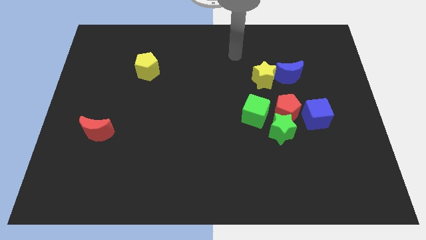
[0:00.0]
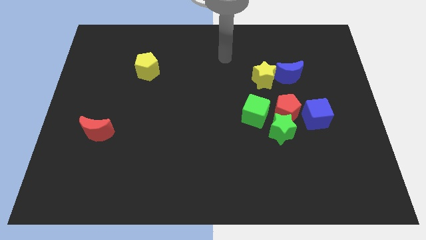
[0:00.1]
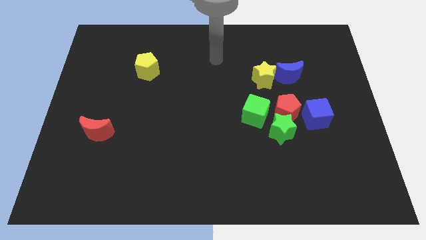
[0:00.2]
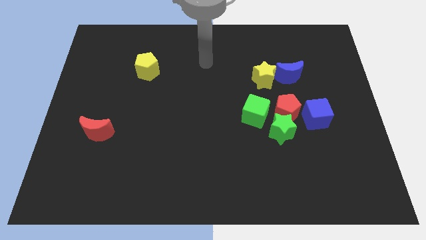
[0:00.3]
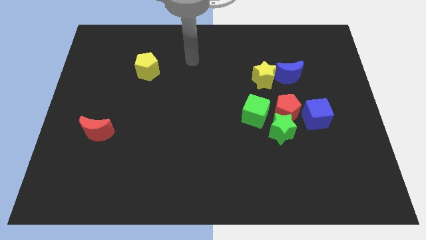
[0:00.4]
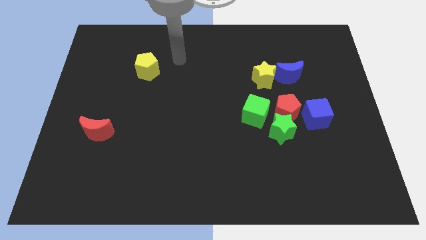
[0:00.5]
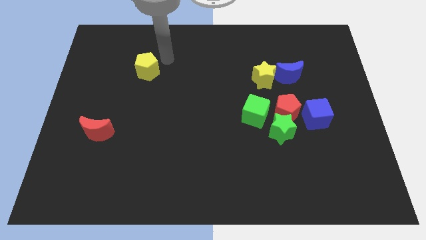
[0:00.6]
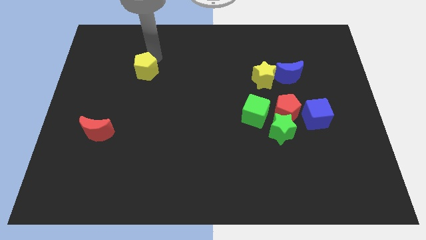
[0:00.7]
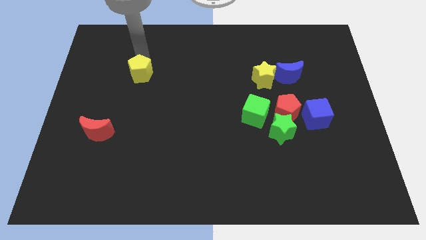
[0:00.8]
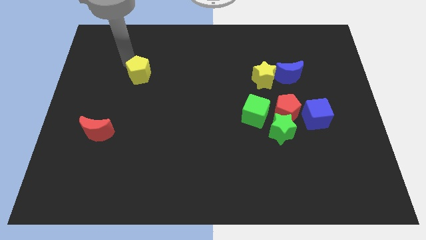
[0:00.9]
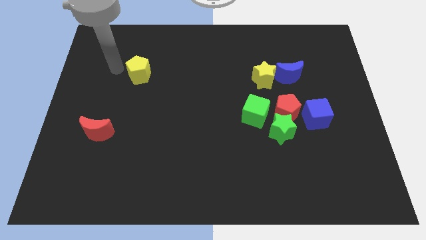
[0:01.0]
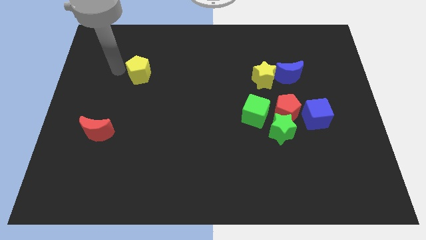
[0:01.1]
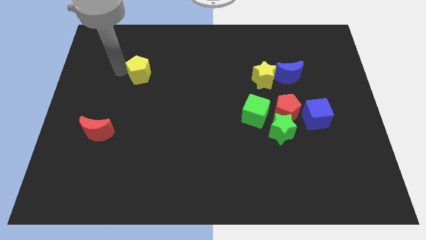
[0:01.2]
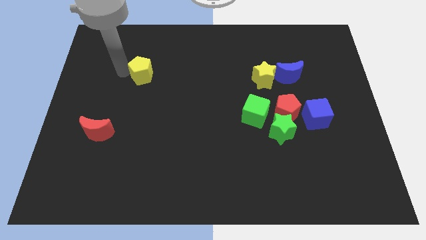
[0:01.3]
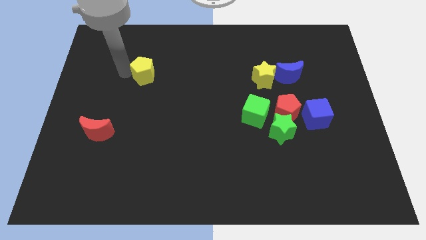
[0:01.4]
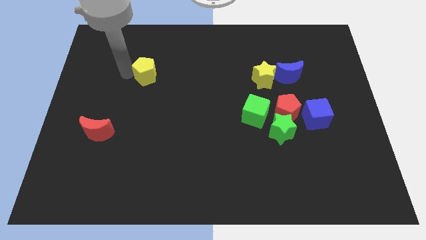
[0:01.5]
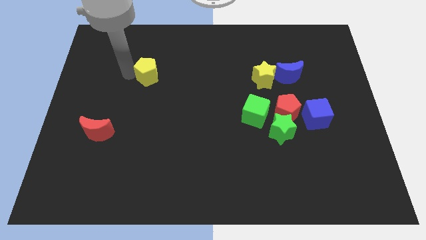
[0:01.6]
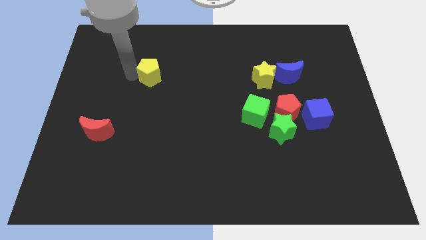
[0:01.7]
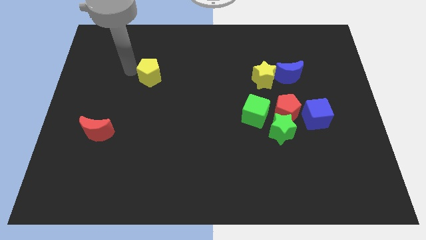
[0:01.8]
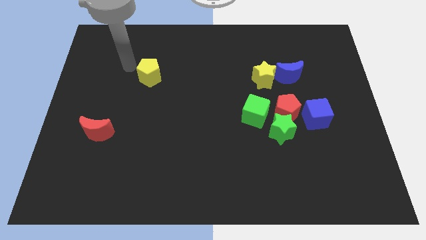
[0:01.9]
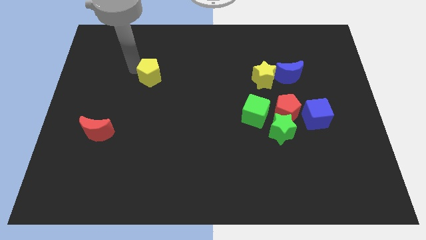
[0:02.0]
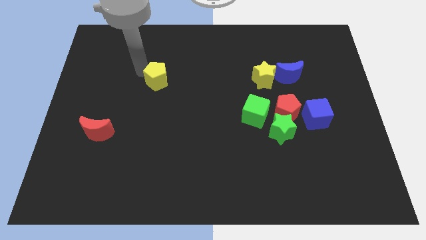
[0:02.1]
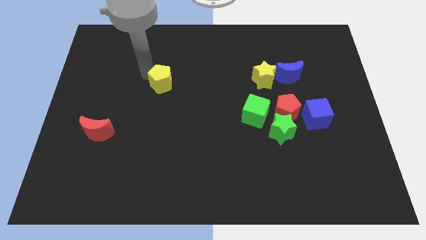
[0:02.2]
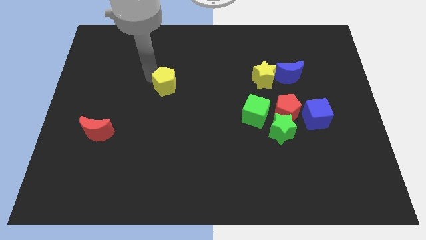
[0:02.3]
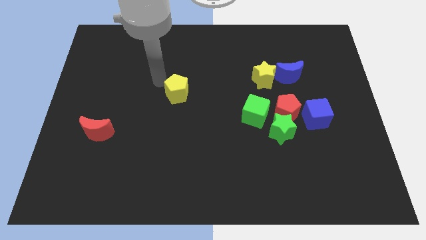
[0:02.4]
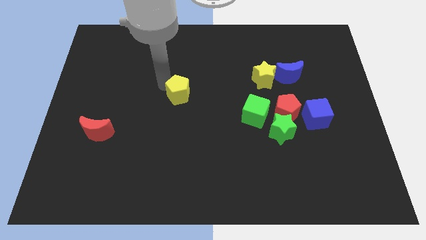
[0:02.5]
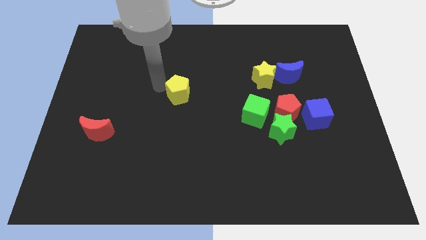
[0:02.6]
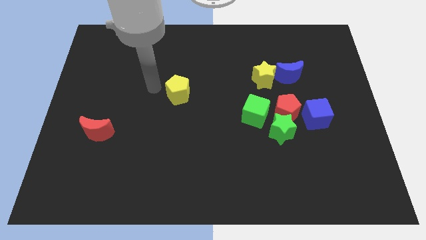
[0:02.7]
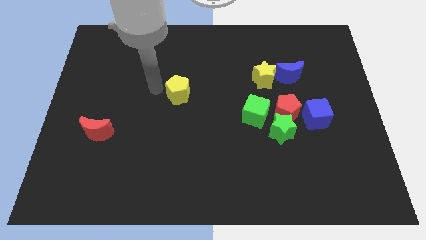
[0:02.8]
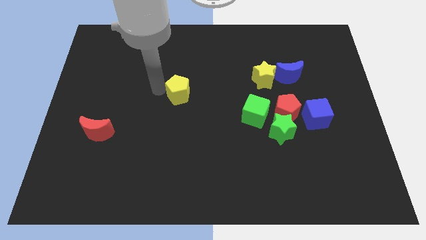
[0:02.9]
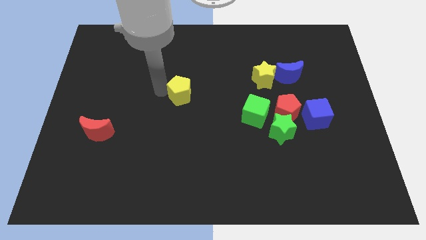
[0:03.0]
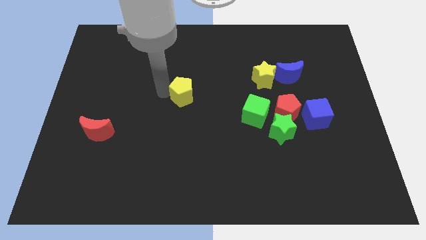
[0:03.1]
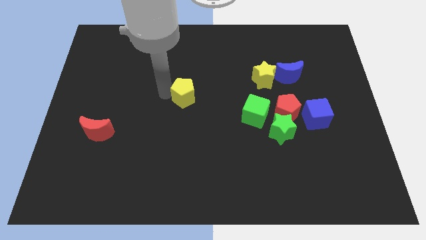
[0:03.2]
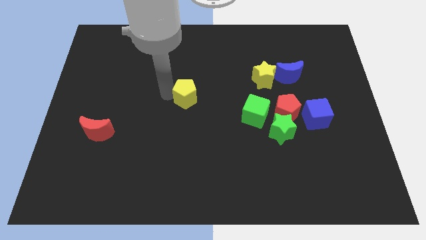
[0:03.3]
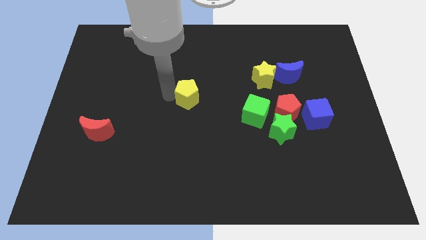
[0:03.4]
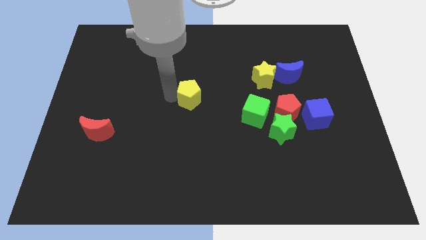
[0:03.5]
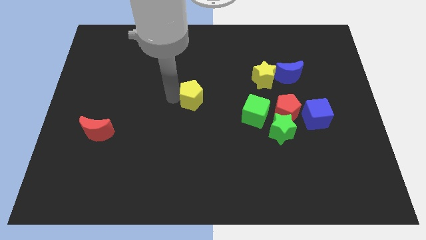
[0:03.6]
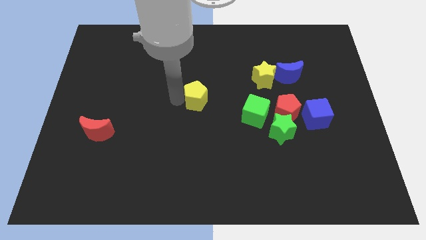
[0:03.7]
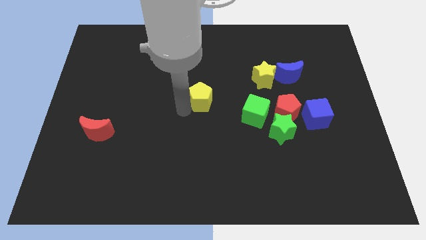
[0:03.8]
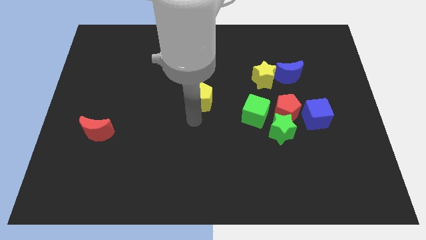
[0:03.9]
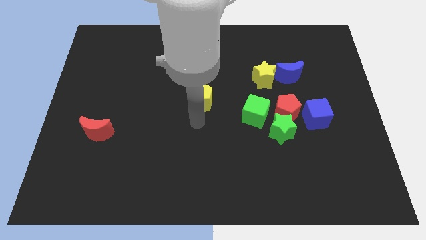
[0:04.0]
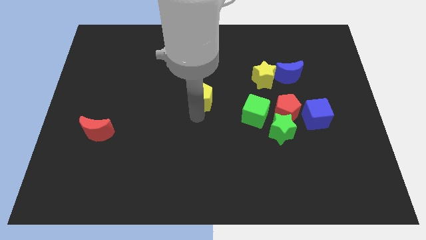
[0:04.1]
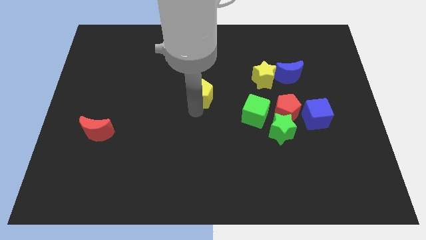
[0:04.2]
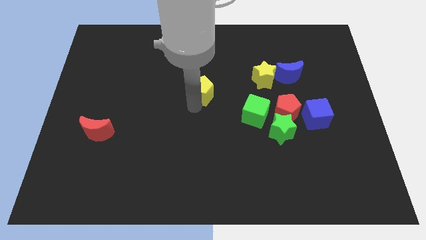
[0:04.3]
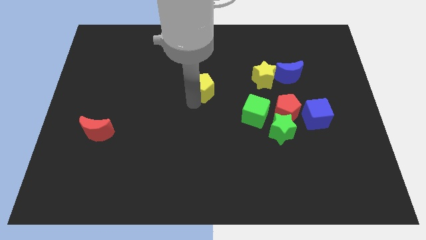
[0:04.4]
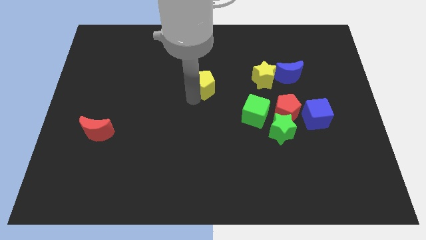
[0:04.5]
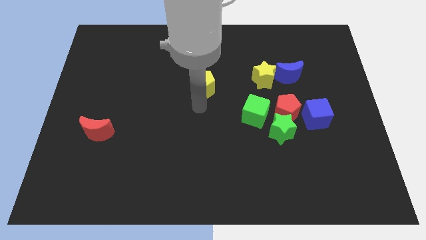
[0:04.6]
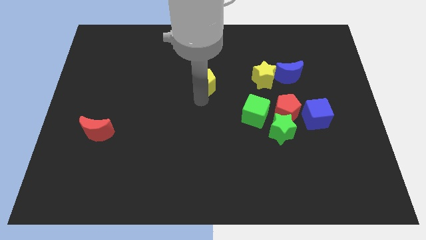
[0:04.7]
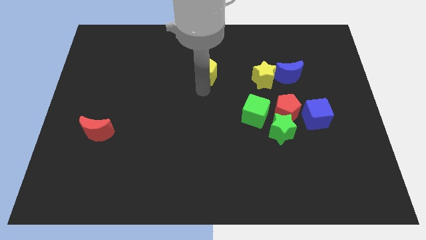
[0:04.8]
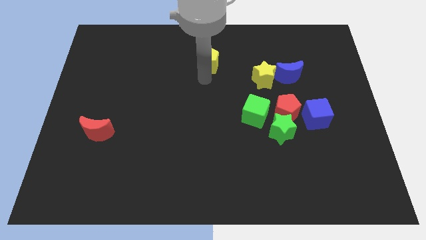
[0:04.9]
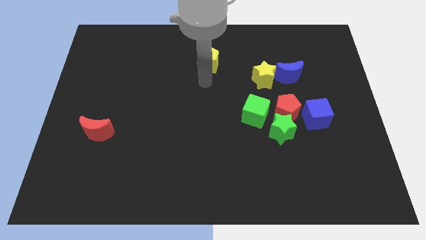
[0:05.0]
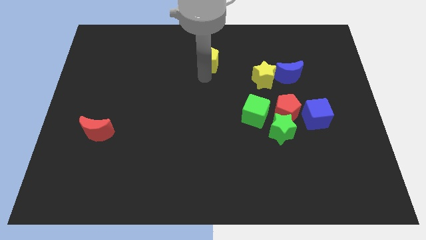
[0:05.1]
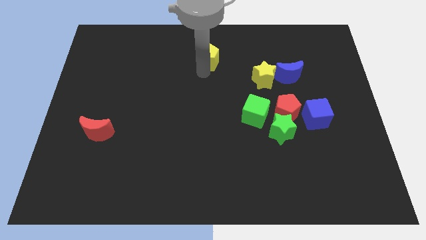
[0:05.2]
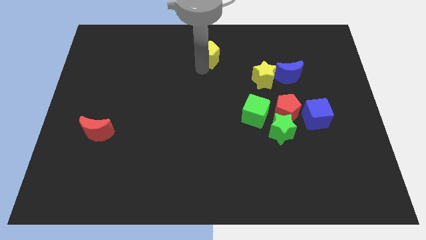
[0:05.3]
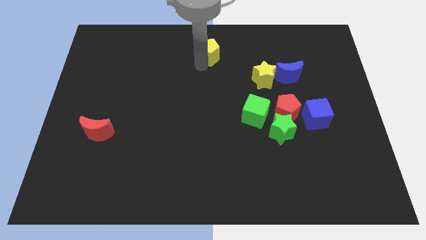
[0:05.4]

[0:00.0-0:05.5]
slide the yellow pentagon to the towards your base

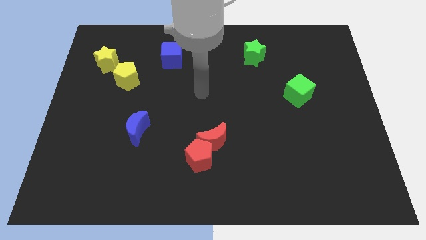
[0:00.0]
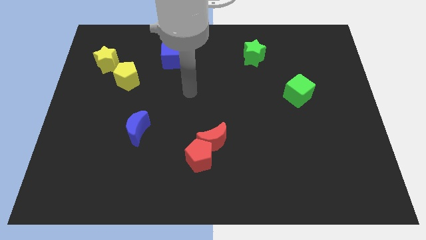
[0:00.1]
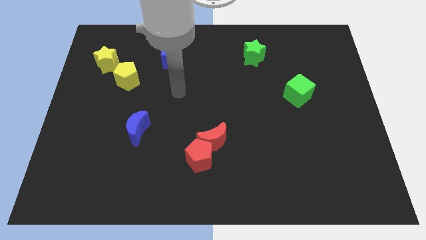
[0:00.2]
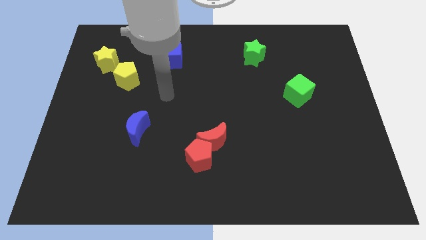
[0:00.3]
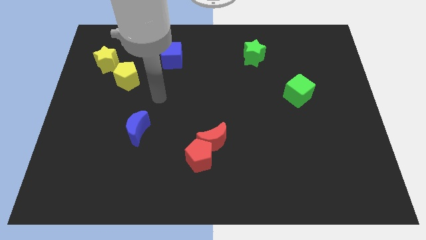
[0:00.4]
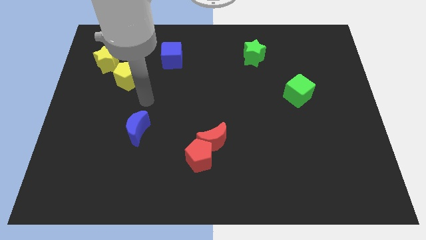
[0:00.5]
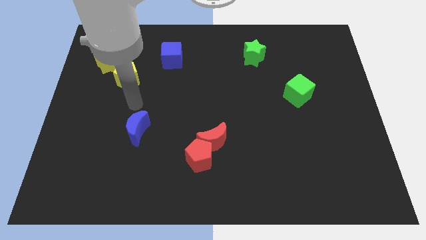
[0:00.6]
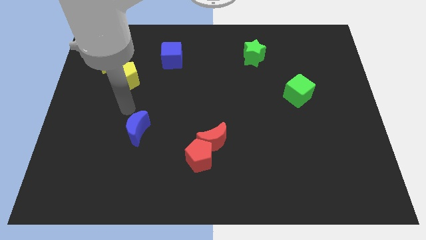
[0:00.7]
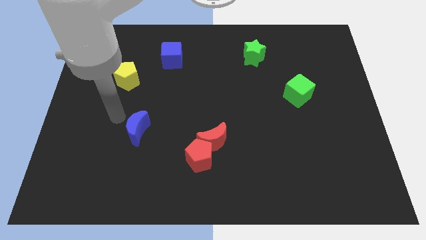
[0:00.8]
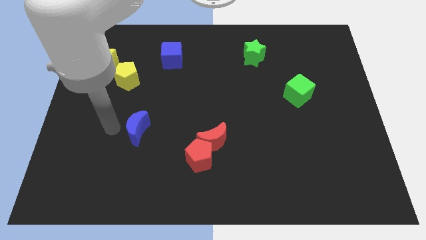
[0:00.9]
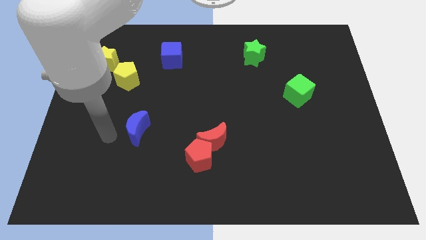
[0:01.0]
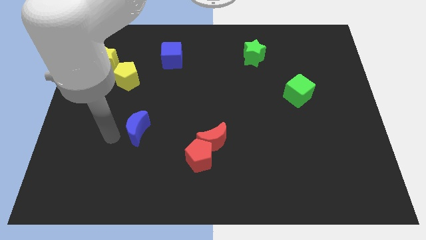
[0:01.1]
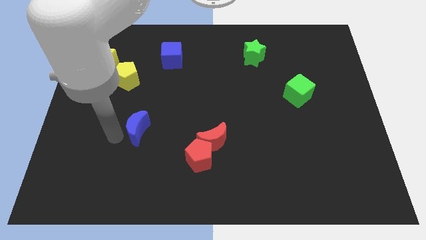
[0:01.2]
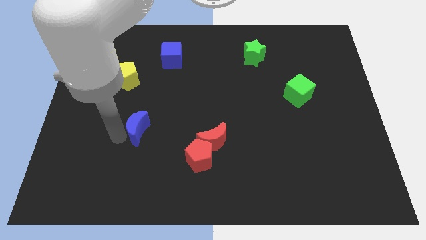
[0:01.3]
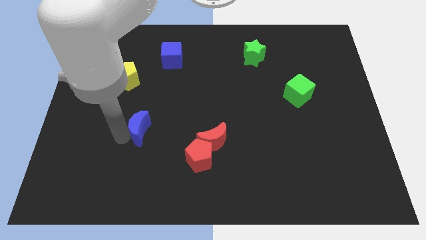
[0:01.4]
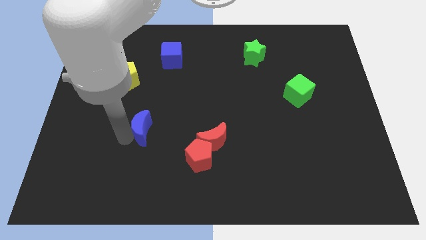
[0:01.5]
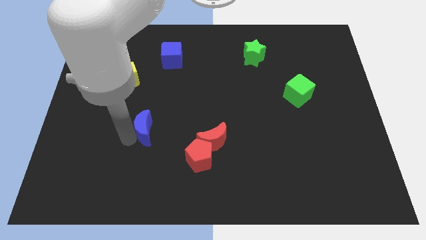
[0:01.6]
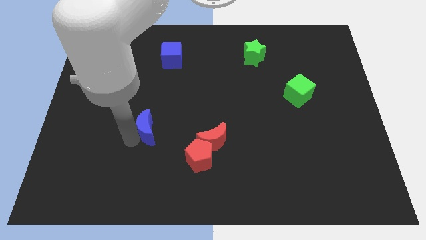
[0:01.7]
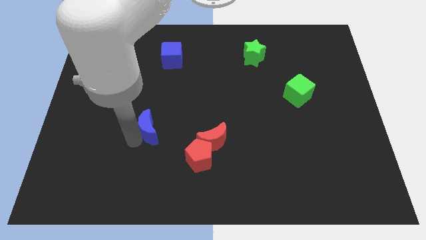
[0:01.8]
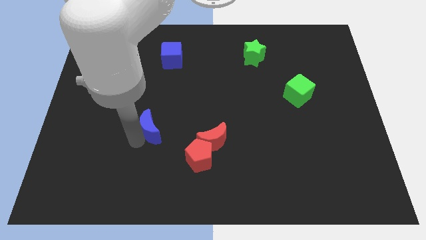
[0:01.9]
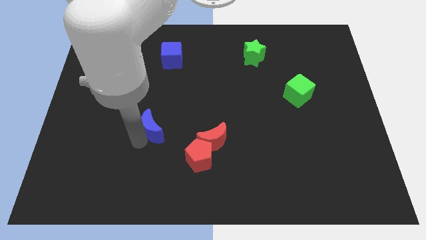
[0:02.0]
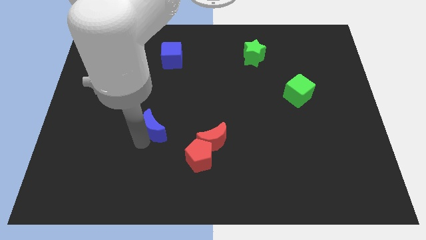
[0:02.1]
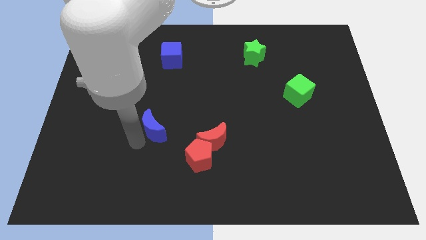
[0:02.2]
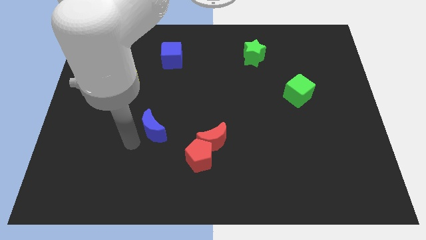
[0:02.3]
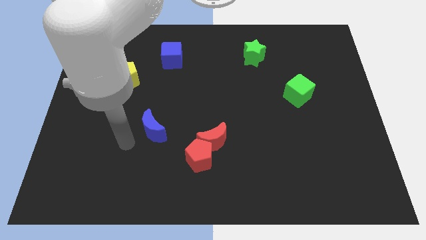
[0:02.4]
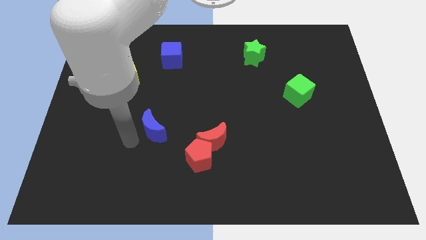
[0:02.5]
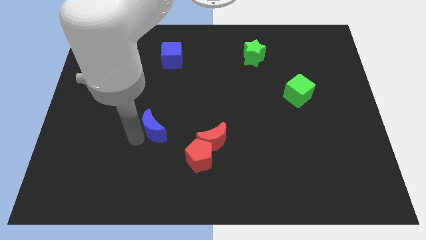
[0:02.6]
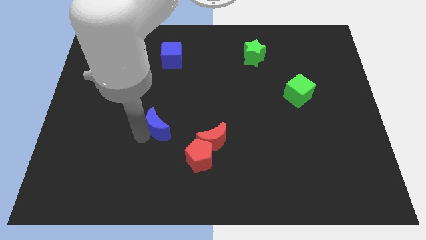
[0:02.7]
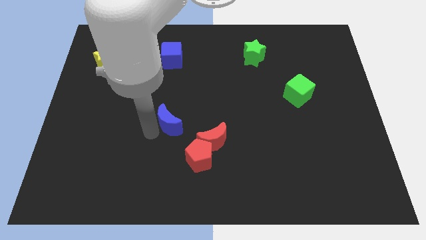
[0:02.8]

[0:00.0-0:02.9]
push the blue moon to the middle
